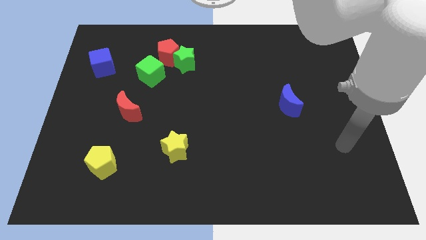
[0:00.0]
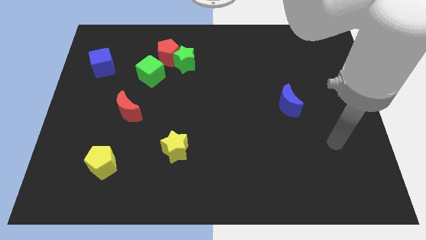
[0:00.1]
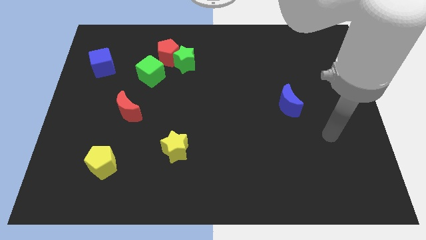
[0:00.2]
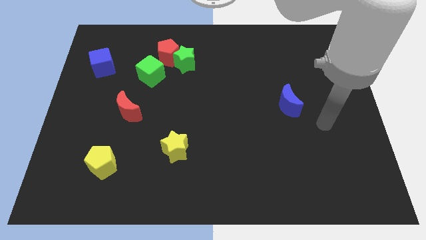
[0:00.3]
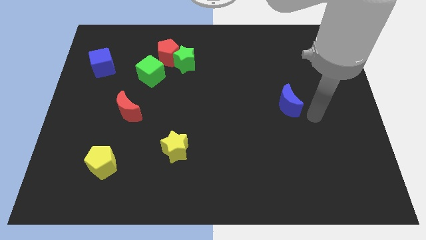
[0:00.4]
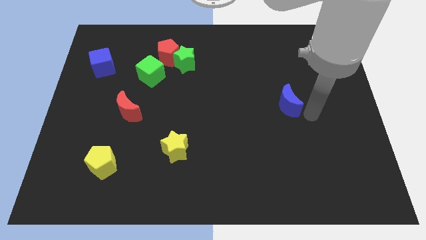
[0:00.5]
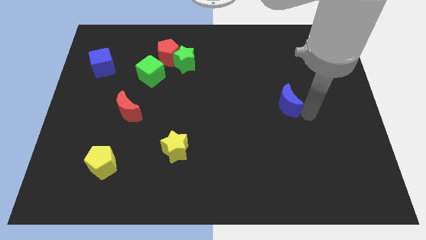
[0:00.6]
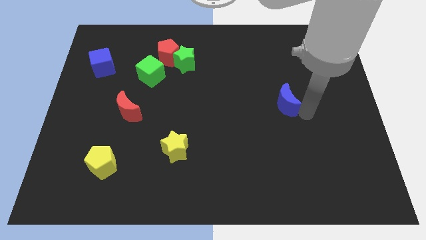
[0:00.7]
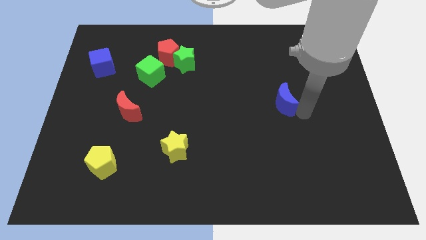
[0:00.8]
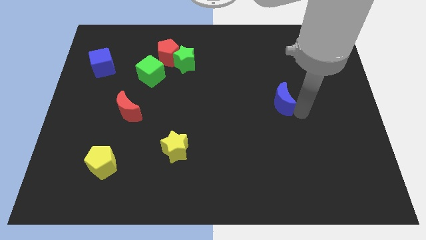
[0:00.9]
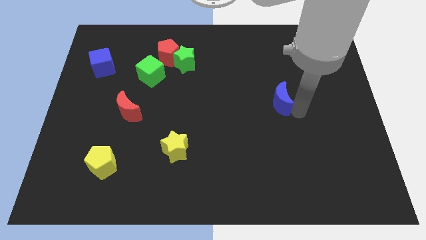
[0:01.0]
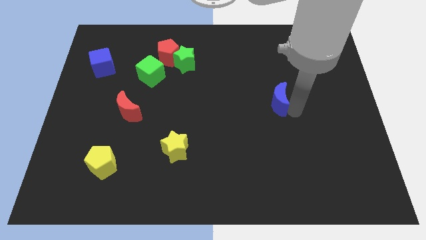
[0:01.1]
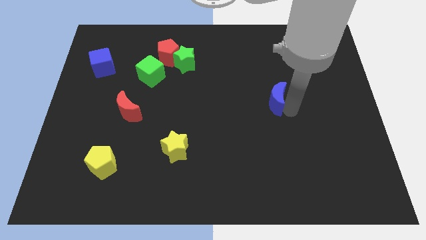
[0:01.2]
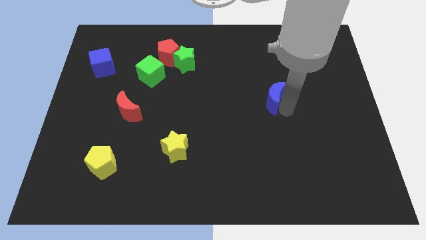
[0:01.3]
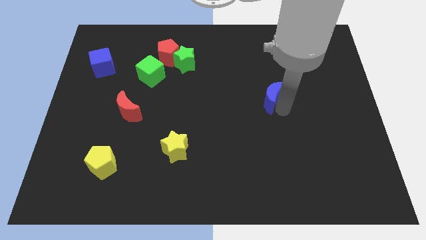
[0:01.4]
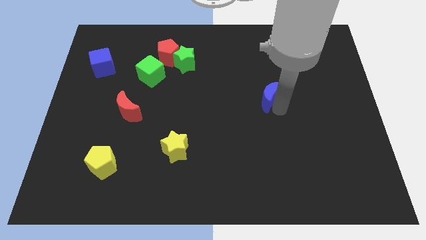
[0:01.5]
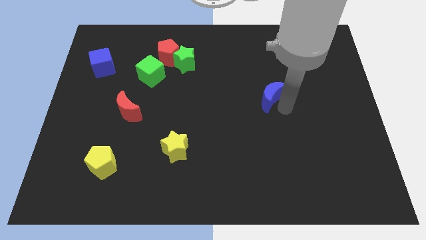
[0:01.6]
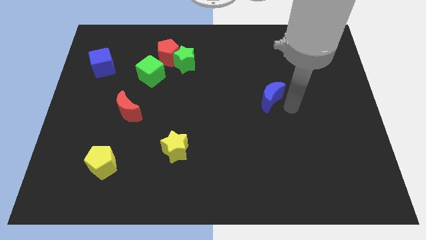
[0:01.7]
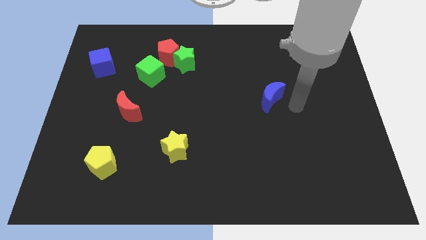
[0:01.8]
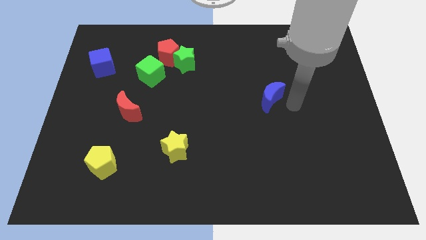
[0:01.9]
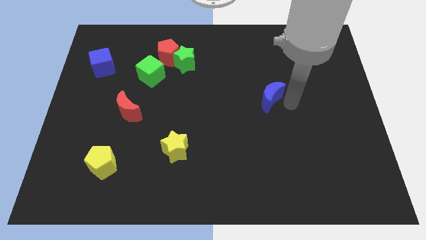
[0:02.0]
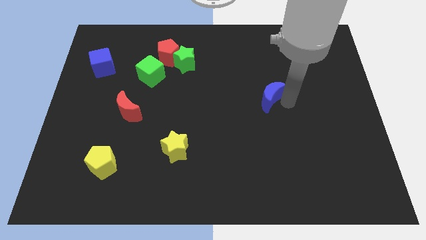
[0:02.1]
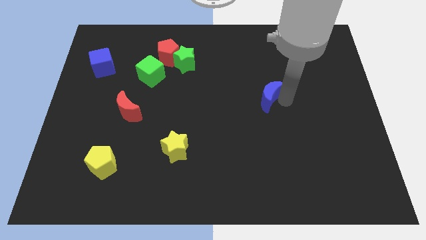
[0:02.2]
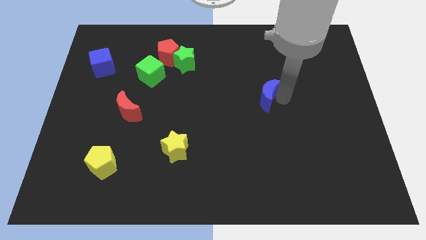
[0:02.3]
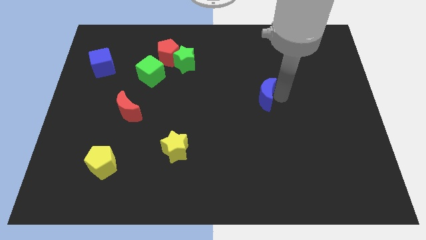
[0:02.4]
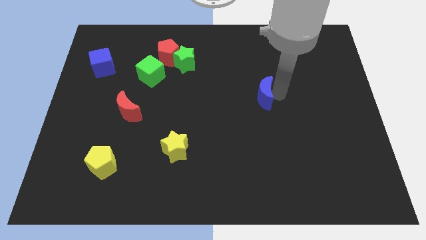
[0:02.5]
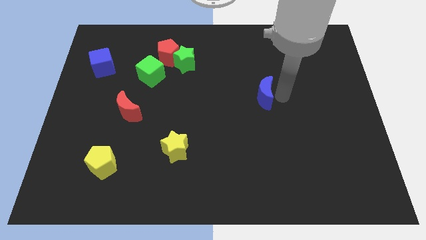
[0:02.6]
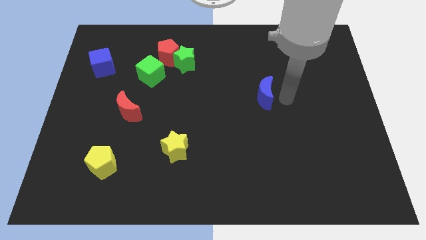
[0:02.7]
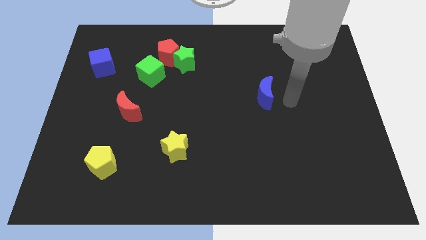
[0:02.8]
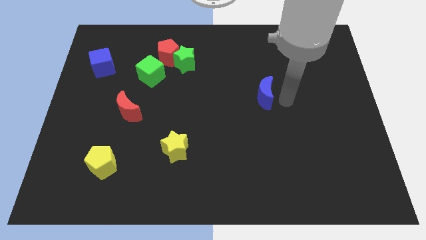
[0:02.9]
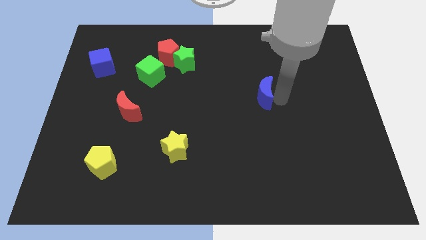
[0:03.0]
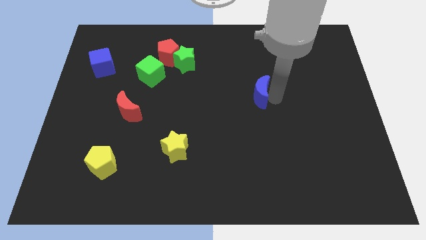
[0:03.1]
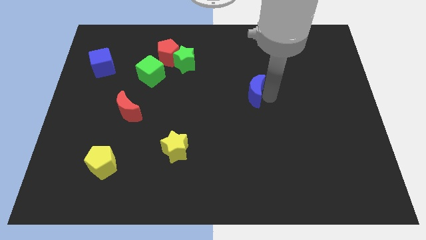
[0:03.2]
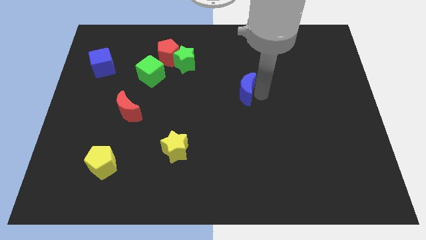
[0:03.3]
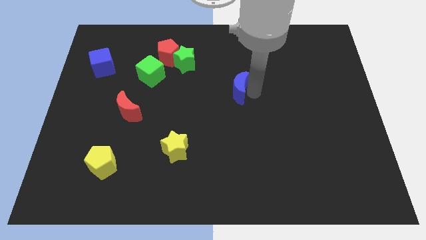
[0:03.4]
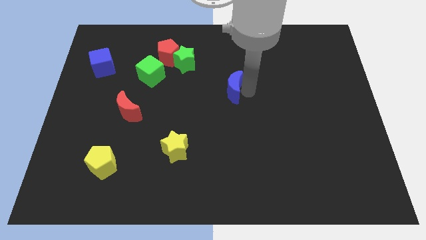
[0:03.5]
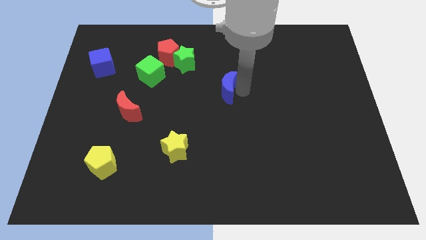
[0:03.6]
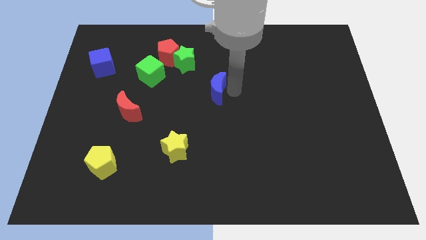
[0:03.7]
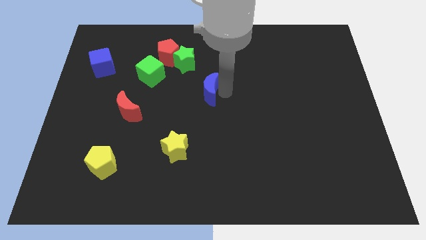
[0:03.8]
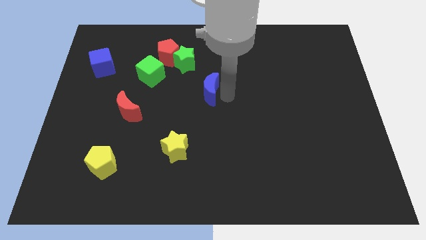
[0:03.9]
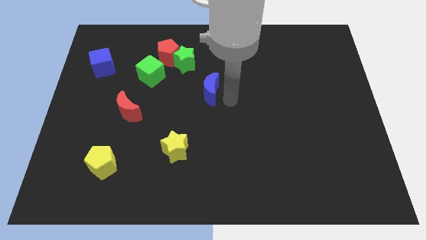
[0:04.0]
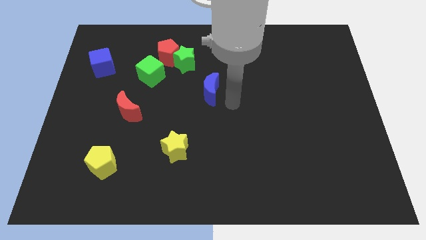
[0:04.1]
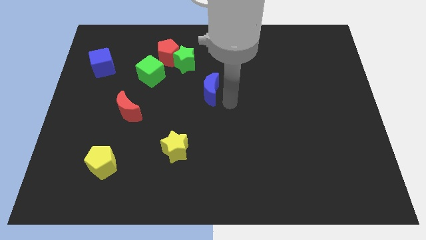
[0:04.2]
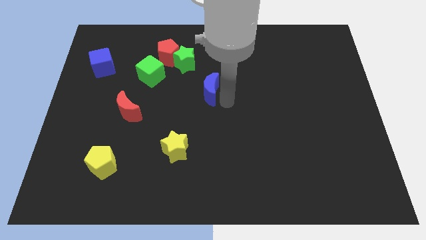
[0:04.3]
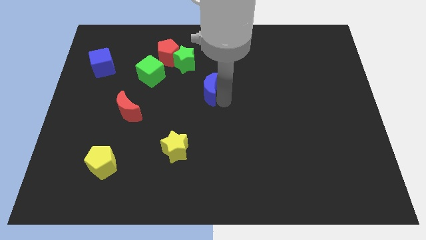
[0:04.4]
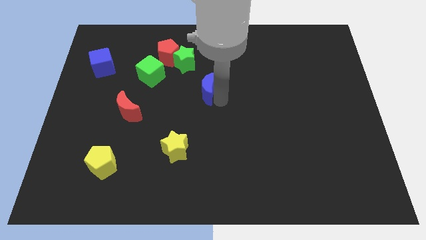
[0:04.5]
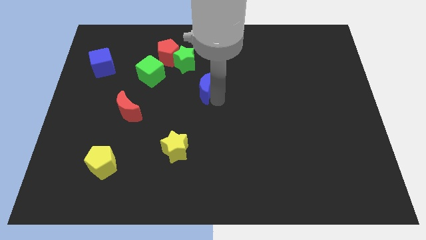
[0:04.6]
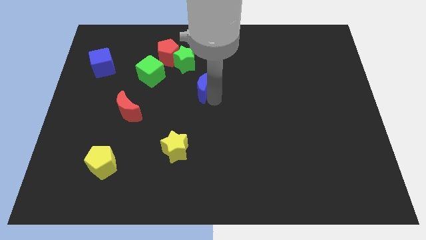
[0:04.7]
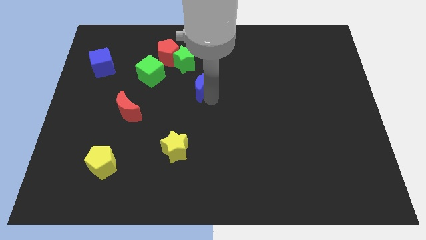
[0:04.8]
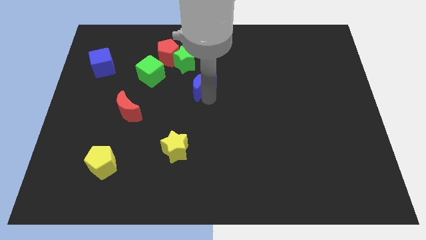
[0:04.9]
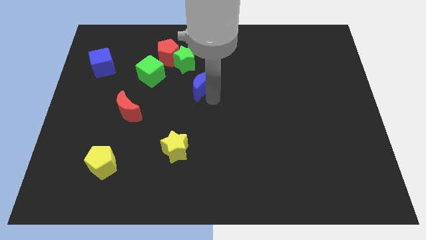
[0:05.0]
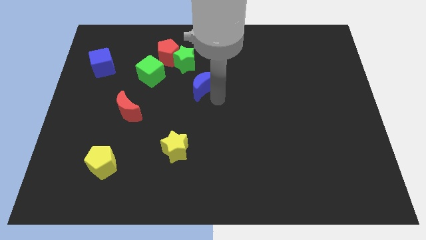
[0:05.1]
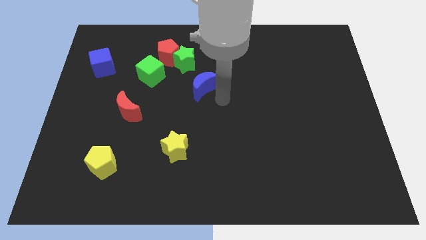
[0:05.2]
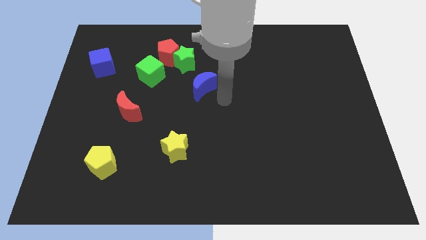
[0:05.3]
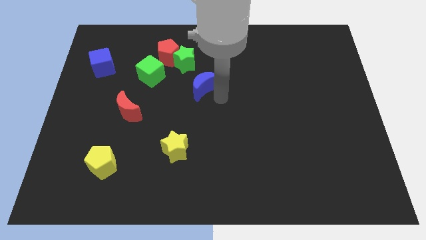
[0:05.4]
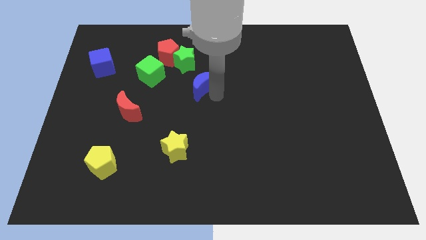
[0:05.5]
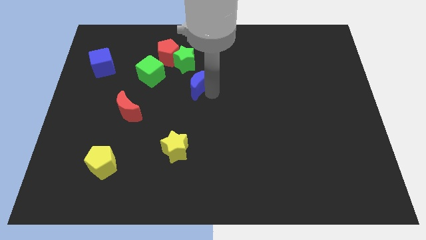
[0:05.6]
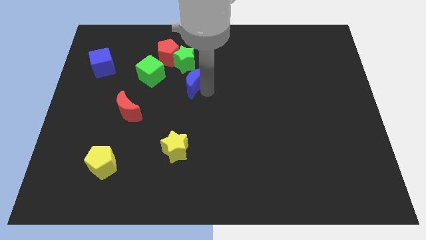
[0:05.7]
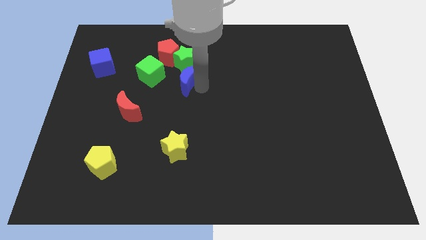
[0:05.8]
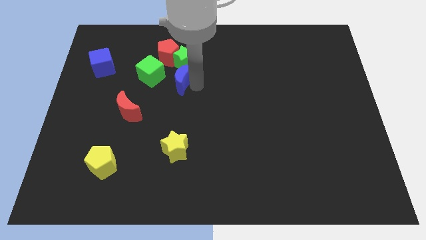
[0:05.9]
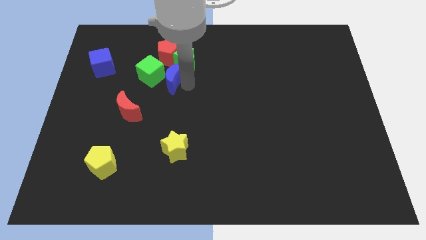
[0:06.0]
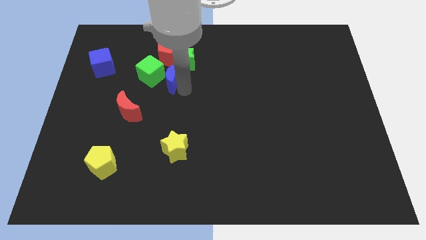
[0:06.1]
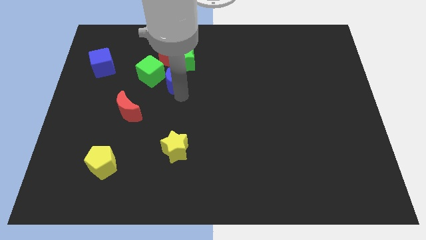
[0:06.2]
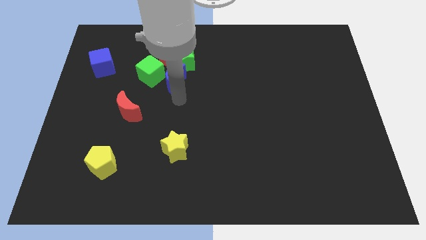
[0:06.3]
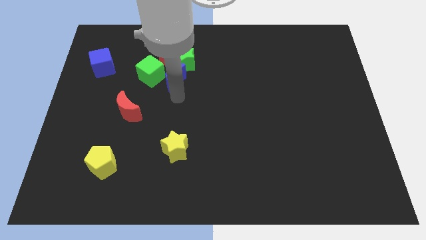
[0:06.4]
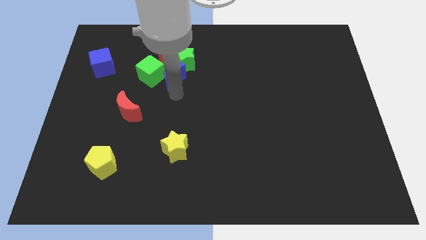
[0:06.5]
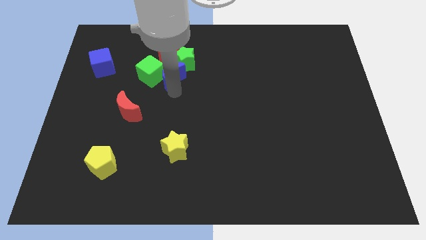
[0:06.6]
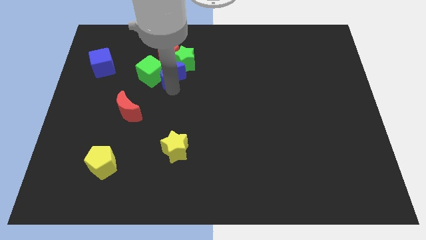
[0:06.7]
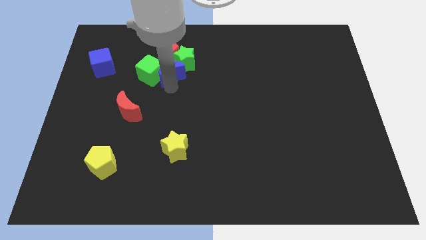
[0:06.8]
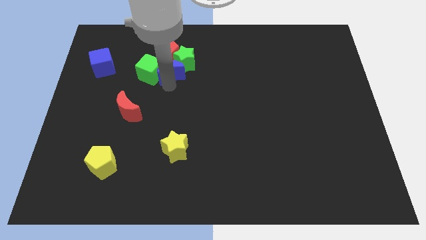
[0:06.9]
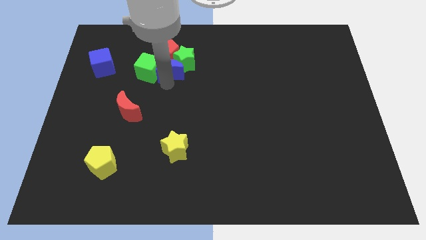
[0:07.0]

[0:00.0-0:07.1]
slide the blue moon to the red pentagon

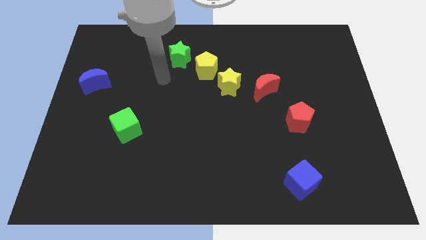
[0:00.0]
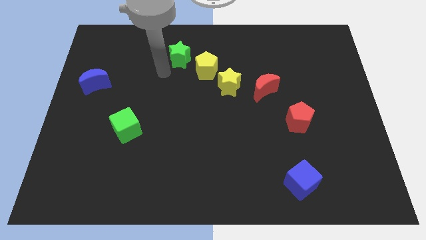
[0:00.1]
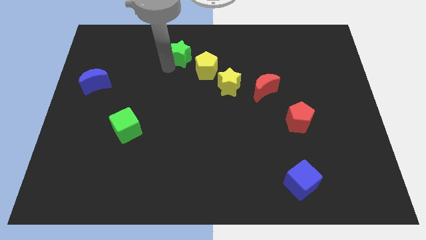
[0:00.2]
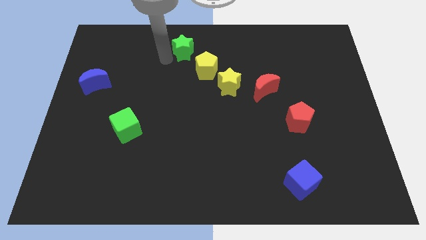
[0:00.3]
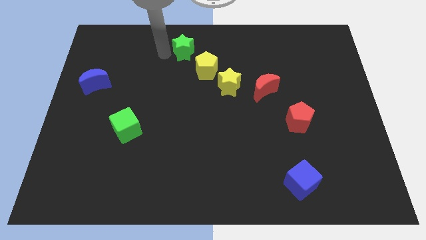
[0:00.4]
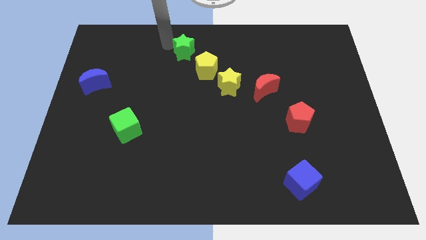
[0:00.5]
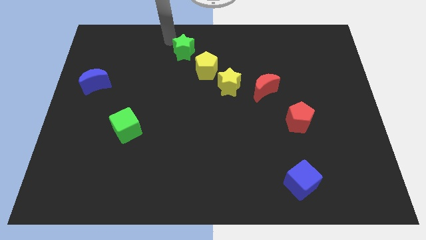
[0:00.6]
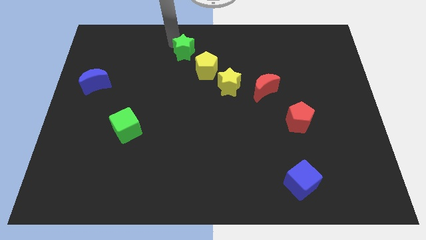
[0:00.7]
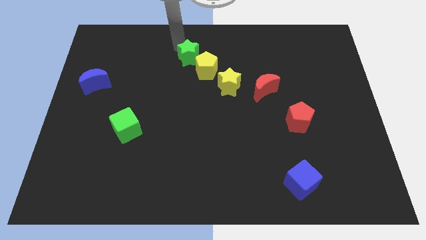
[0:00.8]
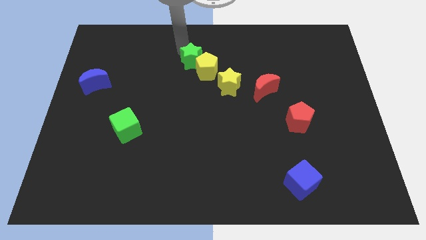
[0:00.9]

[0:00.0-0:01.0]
move the green star towards the yellow pentagon
